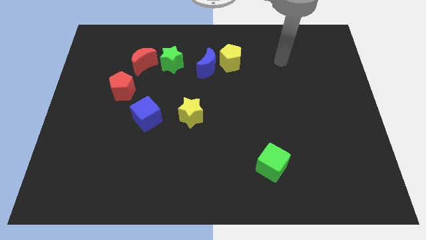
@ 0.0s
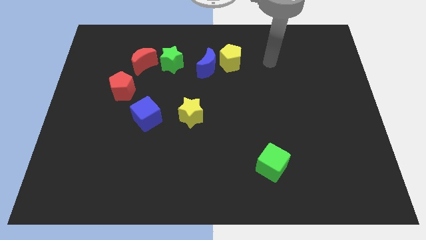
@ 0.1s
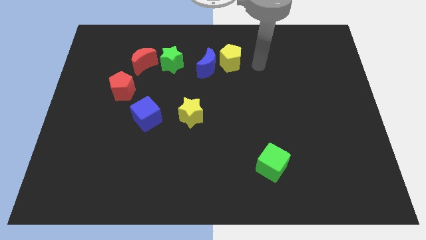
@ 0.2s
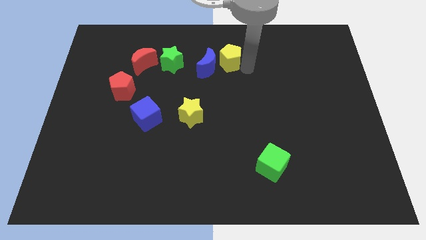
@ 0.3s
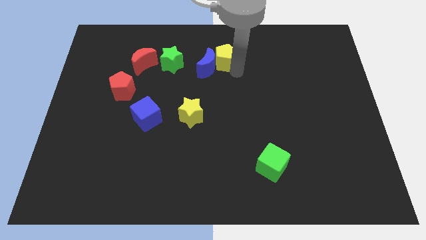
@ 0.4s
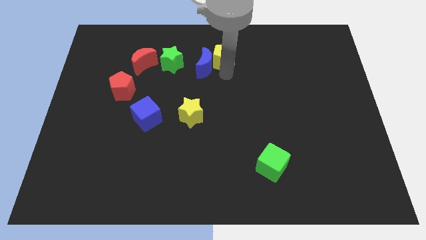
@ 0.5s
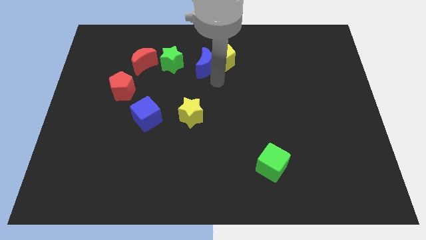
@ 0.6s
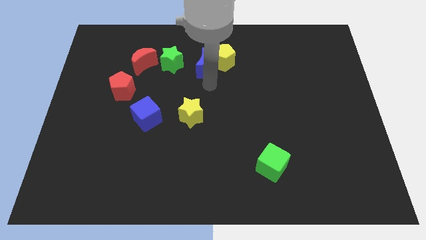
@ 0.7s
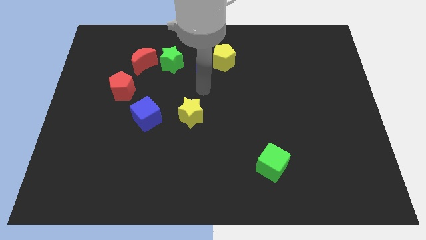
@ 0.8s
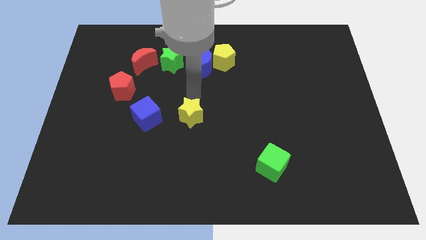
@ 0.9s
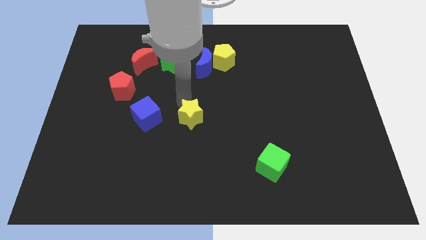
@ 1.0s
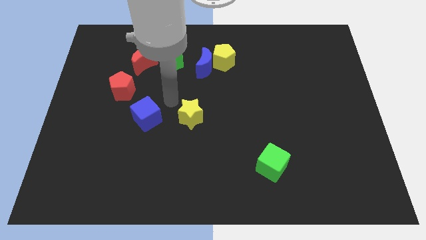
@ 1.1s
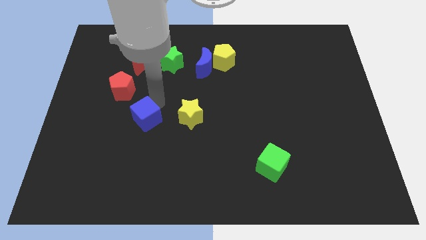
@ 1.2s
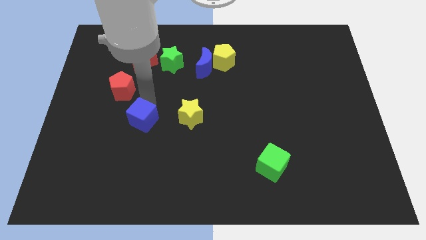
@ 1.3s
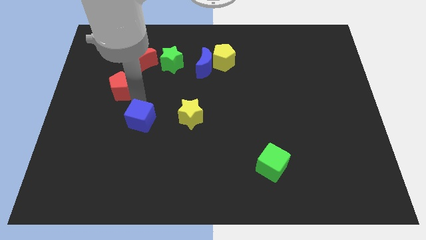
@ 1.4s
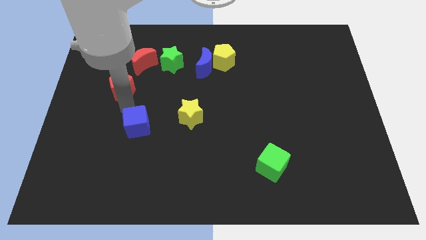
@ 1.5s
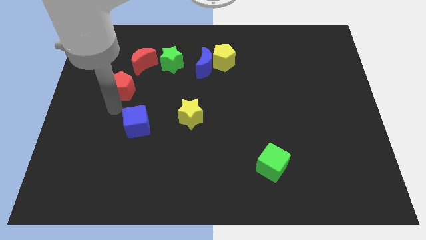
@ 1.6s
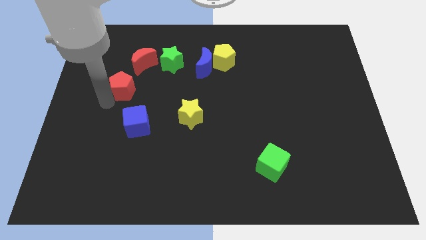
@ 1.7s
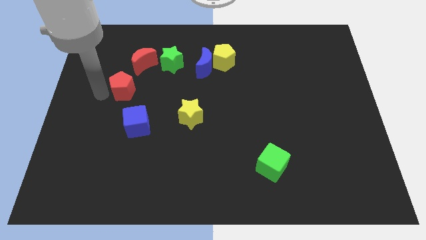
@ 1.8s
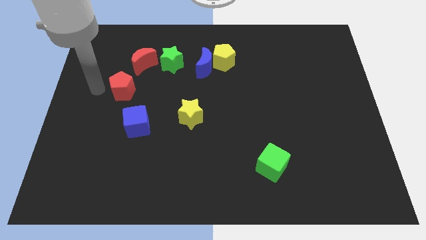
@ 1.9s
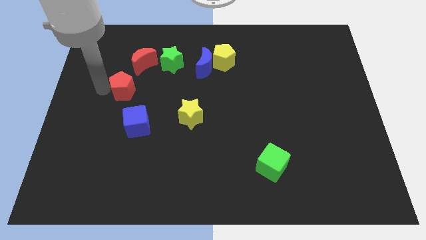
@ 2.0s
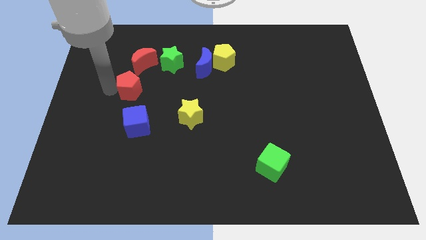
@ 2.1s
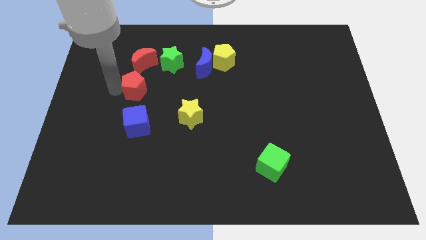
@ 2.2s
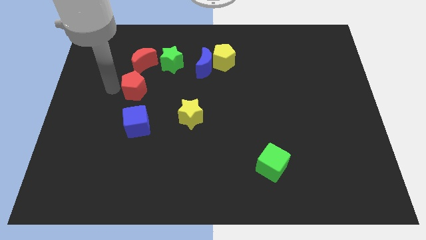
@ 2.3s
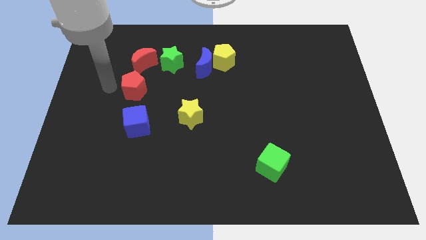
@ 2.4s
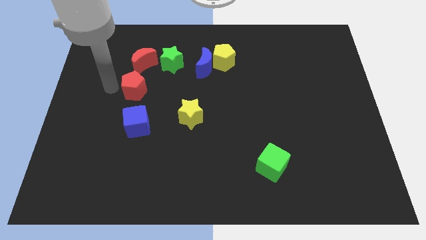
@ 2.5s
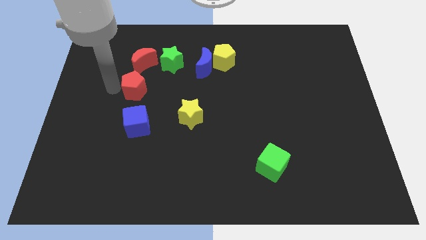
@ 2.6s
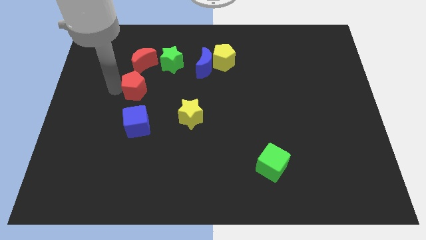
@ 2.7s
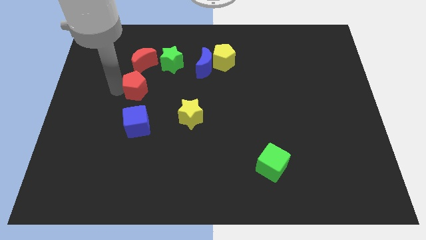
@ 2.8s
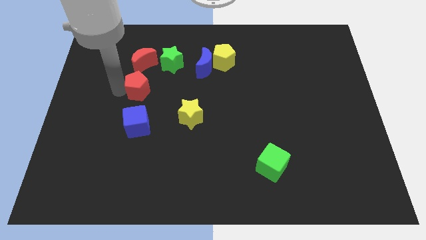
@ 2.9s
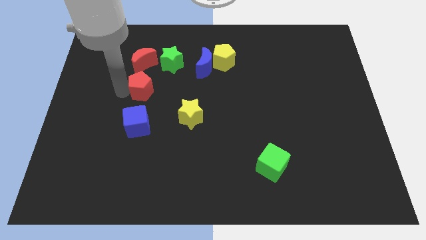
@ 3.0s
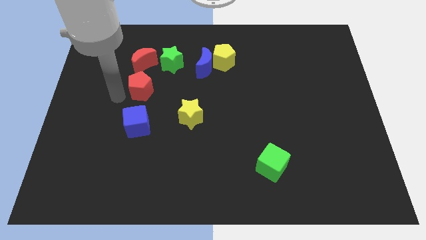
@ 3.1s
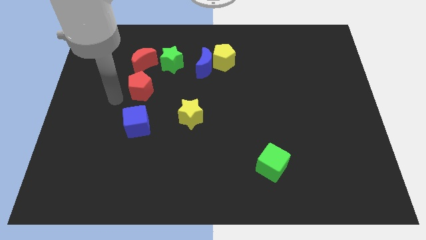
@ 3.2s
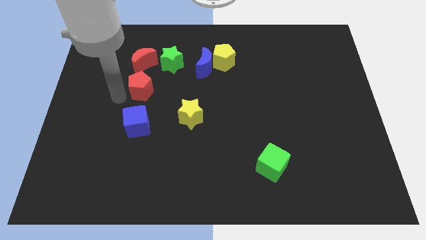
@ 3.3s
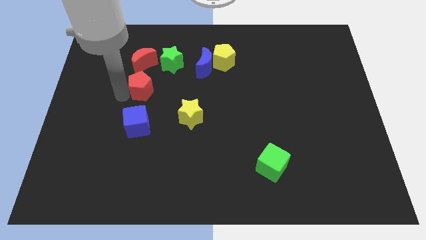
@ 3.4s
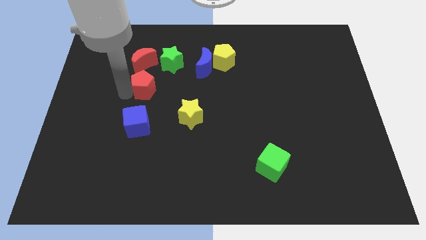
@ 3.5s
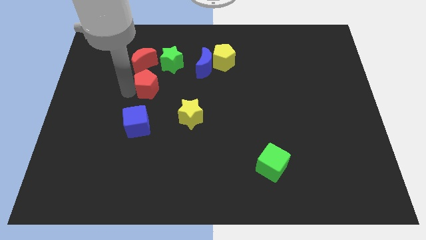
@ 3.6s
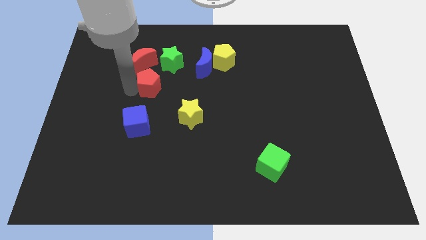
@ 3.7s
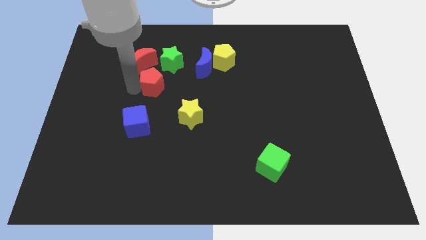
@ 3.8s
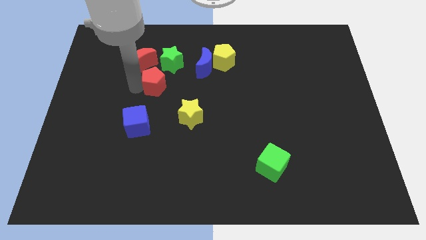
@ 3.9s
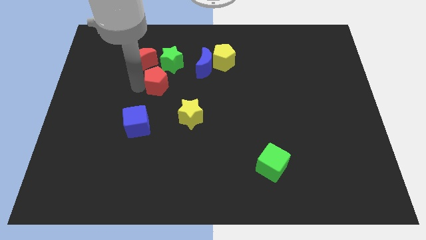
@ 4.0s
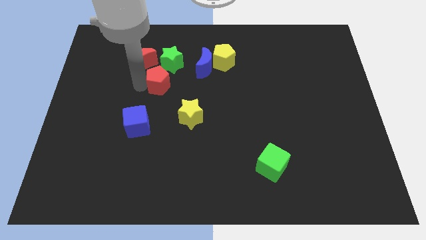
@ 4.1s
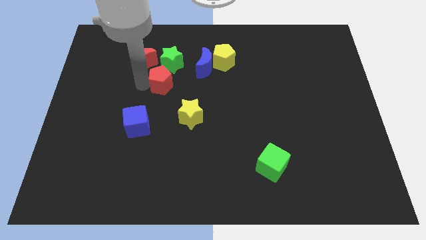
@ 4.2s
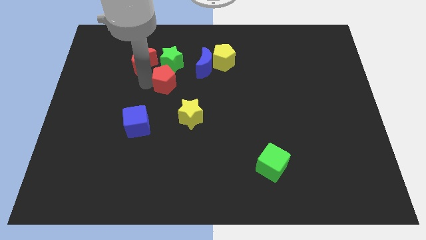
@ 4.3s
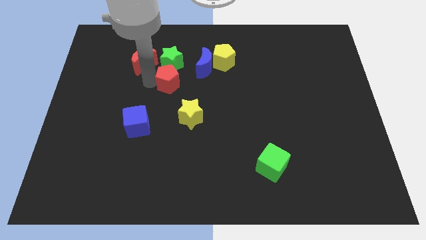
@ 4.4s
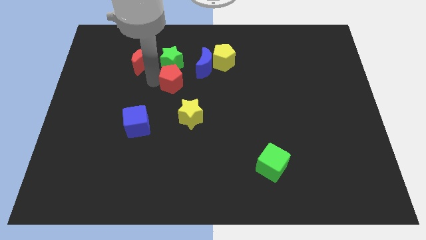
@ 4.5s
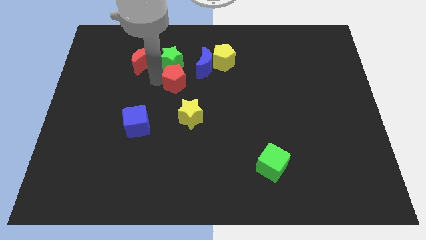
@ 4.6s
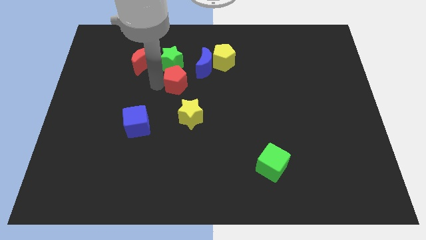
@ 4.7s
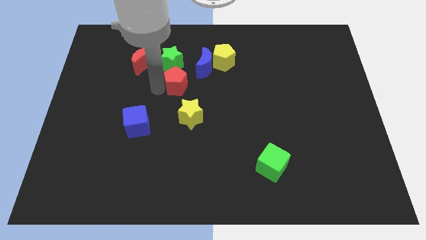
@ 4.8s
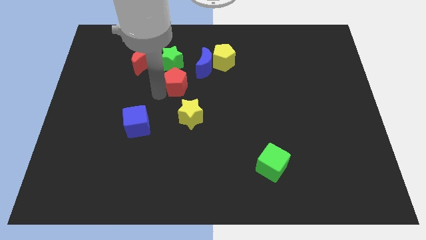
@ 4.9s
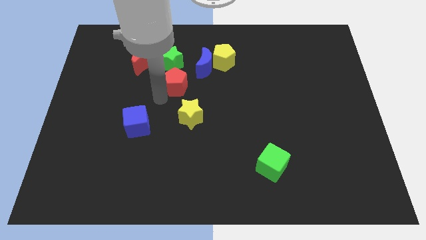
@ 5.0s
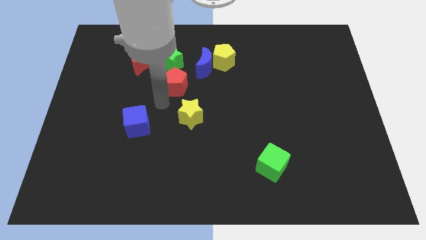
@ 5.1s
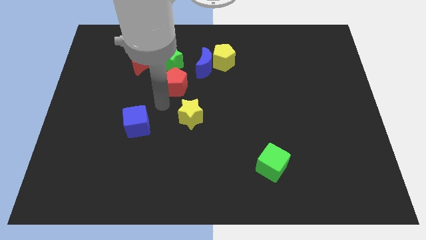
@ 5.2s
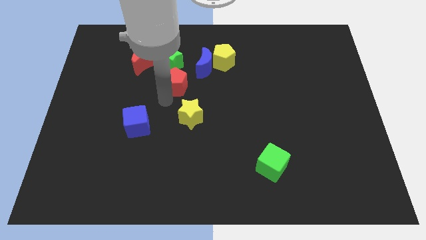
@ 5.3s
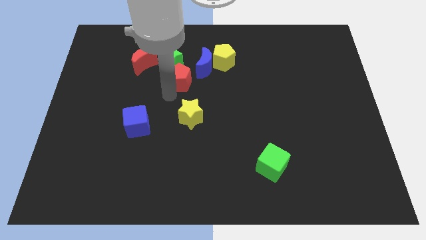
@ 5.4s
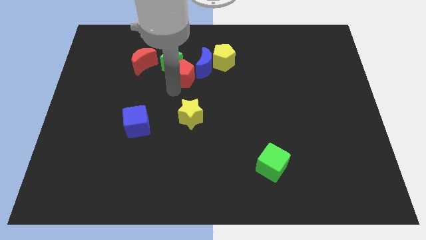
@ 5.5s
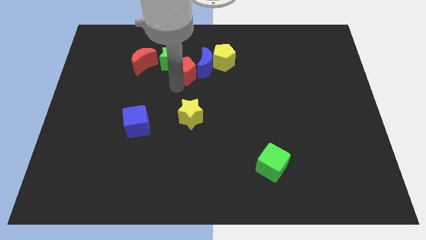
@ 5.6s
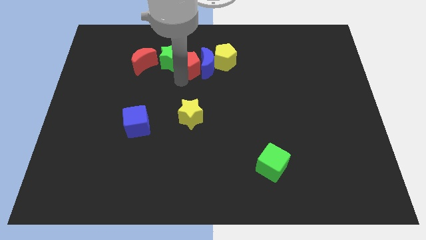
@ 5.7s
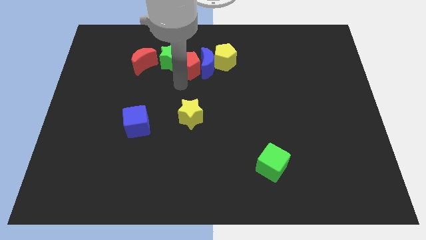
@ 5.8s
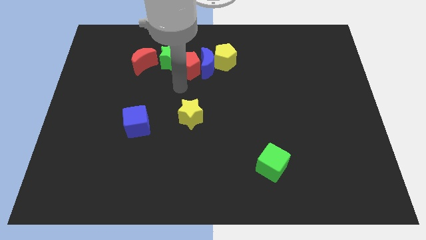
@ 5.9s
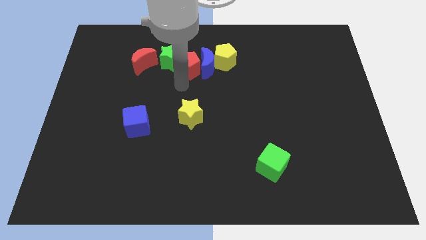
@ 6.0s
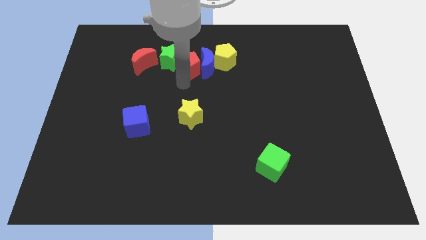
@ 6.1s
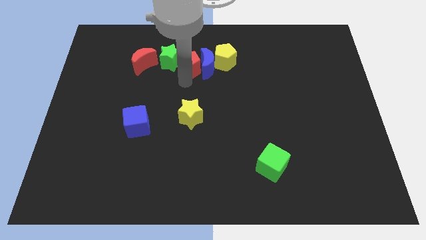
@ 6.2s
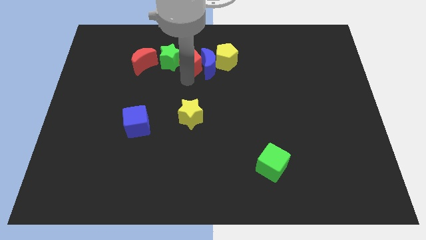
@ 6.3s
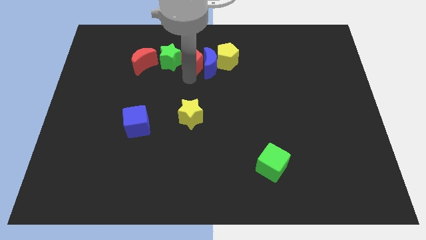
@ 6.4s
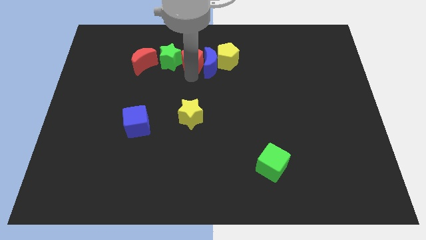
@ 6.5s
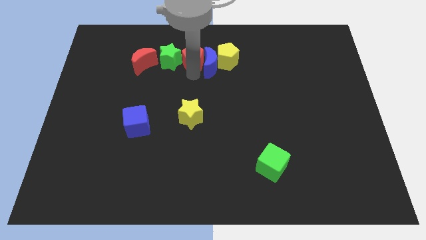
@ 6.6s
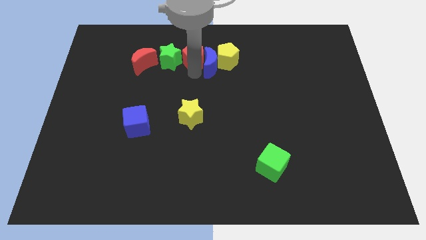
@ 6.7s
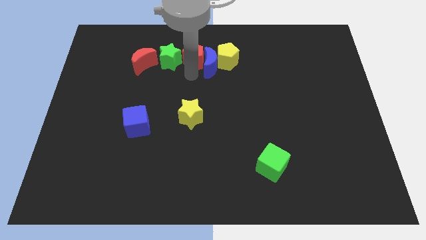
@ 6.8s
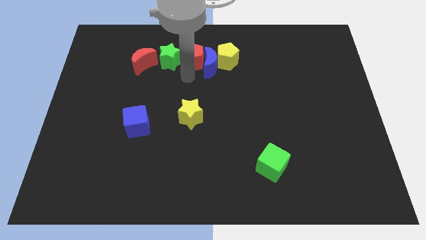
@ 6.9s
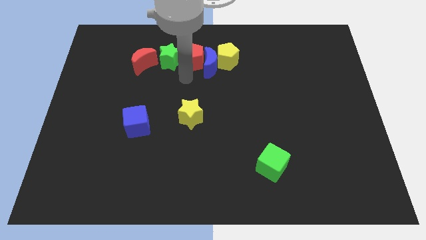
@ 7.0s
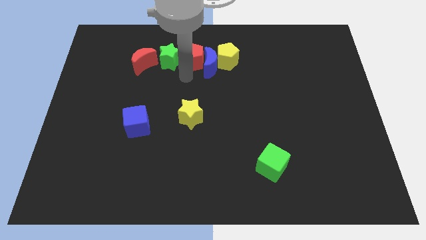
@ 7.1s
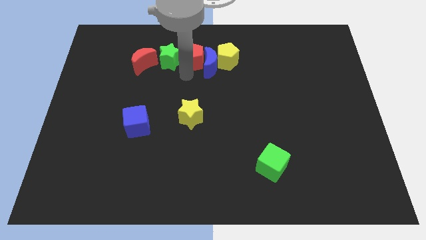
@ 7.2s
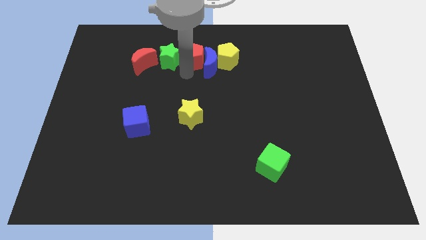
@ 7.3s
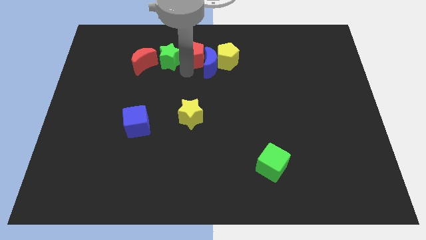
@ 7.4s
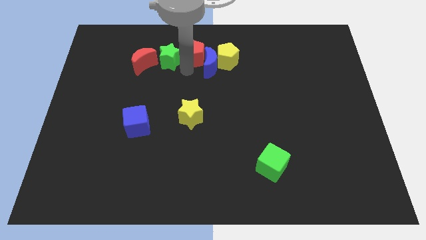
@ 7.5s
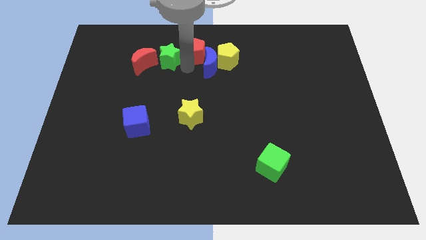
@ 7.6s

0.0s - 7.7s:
move the red pentagon to the towards your base
